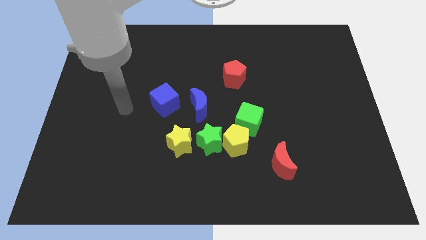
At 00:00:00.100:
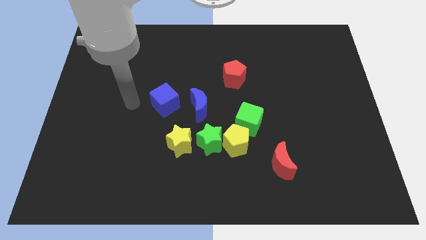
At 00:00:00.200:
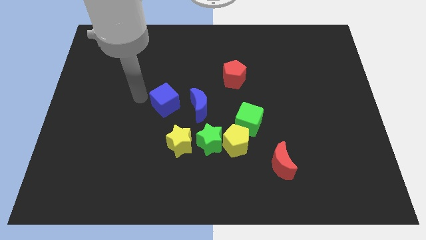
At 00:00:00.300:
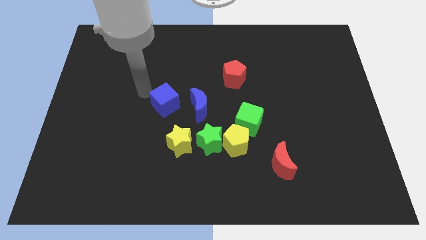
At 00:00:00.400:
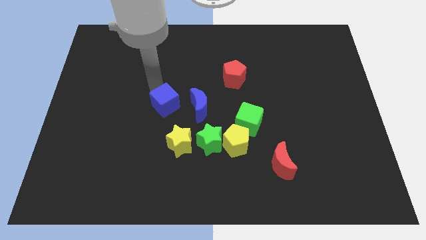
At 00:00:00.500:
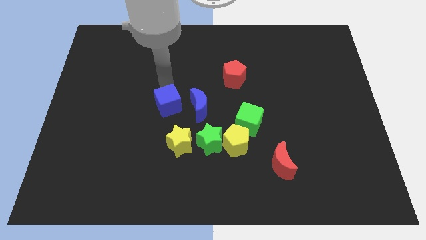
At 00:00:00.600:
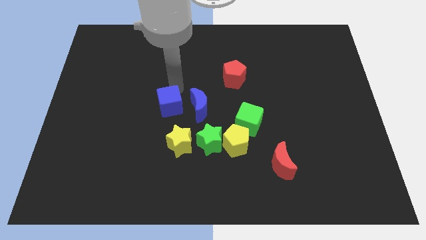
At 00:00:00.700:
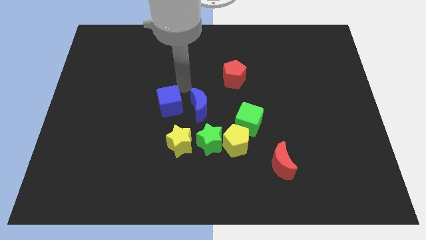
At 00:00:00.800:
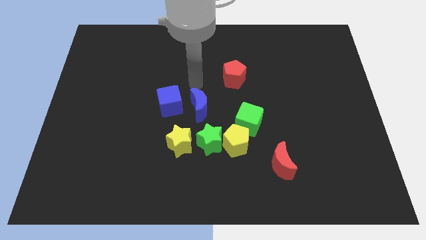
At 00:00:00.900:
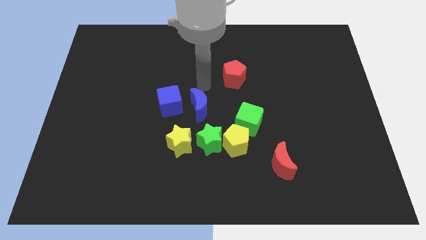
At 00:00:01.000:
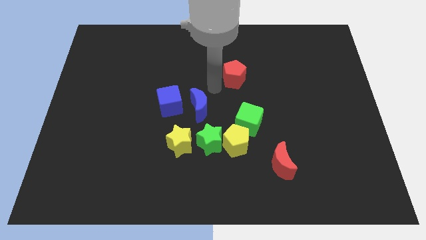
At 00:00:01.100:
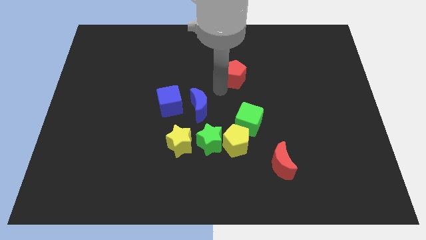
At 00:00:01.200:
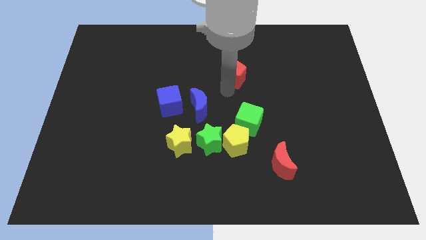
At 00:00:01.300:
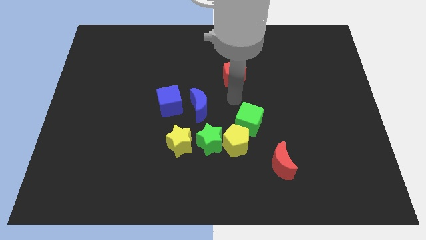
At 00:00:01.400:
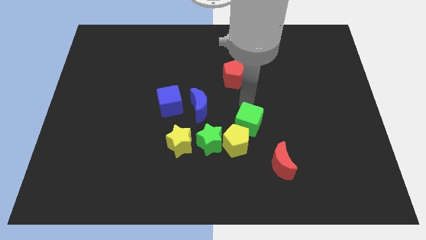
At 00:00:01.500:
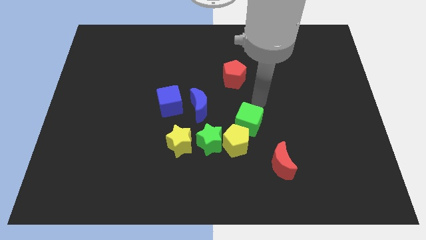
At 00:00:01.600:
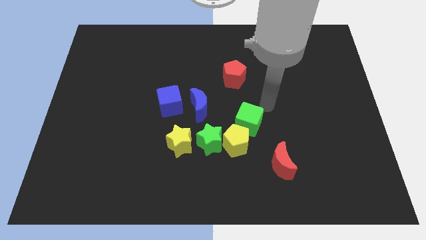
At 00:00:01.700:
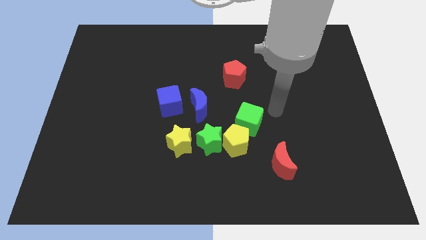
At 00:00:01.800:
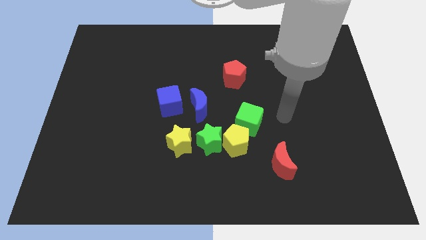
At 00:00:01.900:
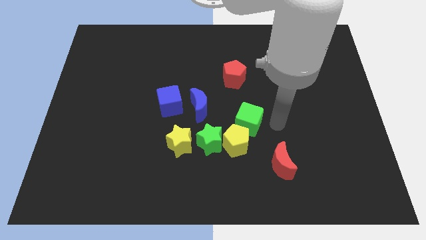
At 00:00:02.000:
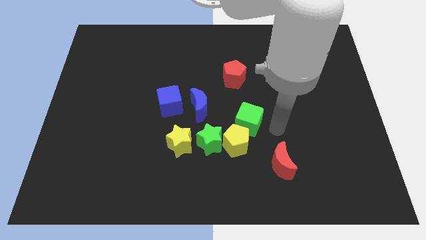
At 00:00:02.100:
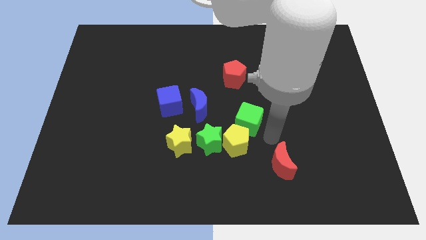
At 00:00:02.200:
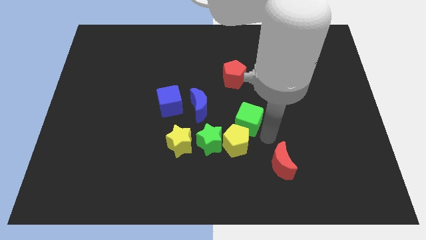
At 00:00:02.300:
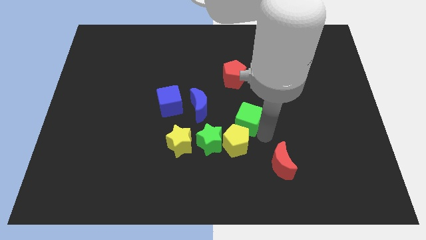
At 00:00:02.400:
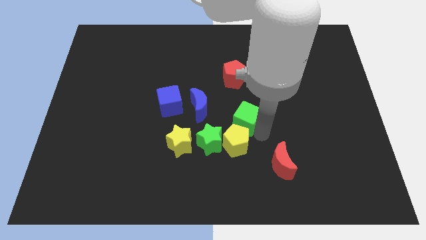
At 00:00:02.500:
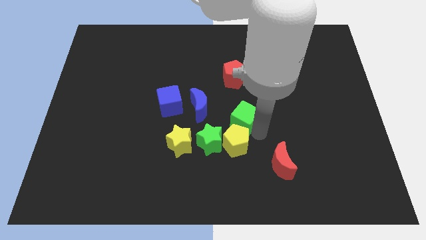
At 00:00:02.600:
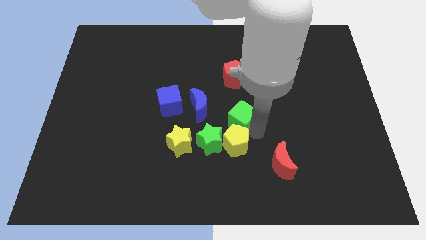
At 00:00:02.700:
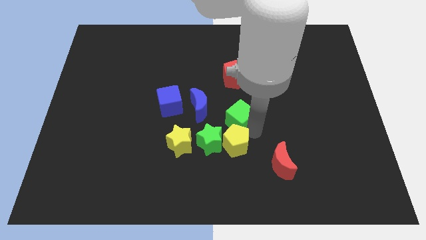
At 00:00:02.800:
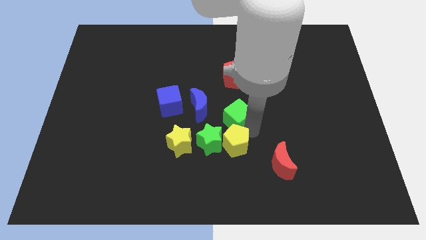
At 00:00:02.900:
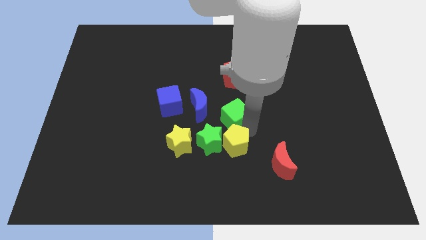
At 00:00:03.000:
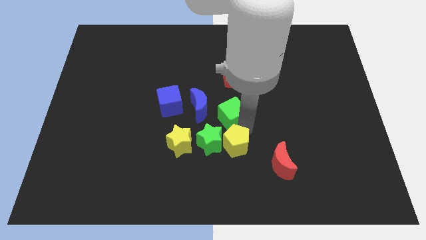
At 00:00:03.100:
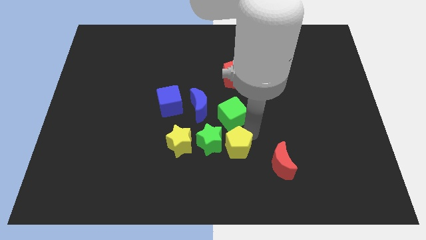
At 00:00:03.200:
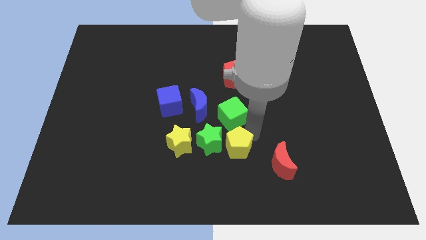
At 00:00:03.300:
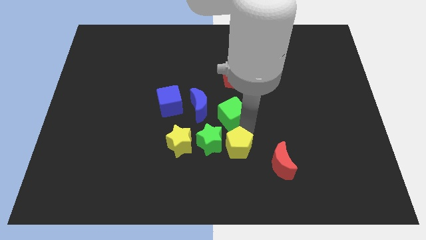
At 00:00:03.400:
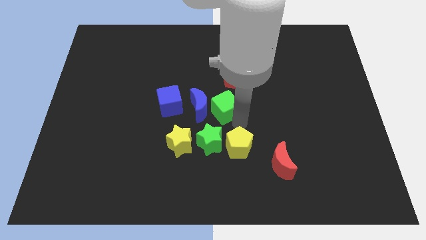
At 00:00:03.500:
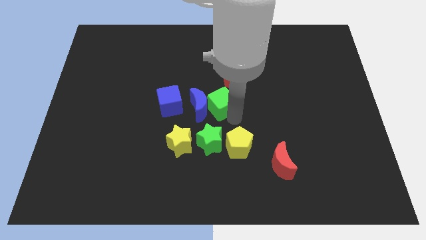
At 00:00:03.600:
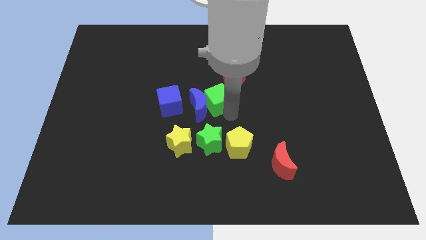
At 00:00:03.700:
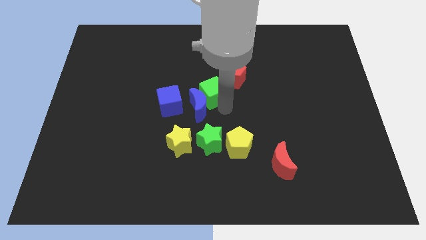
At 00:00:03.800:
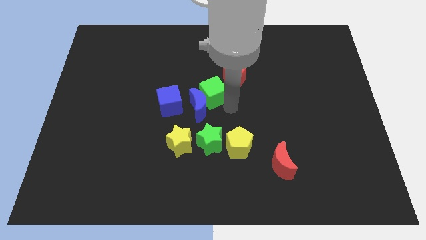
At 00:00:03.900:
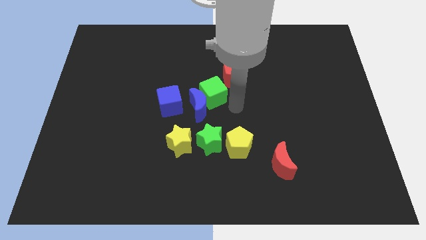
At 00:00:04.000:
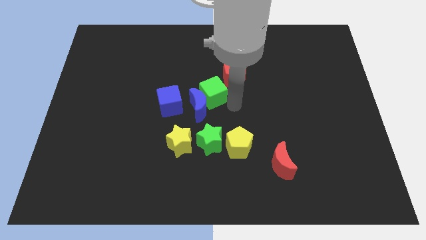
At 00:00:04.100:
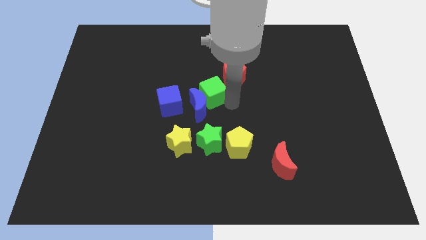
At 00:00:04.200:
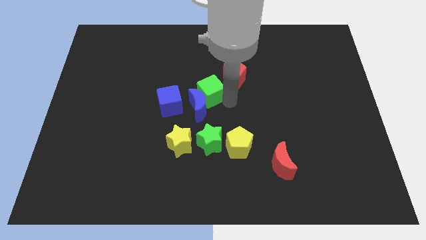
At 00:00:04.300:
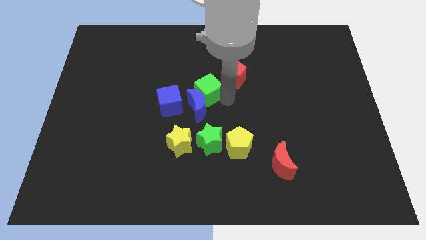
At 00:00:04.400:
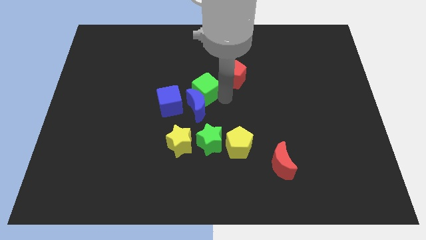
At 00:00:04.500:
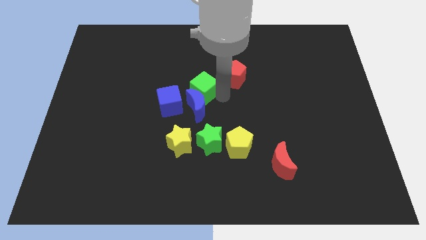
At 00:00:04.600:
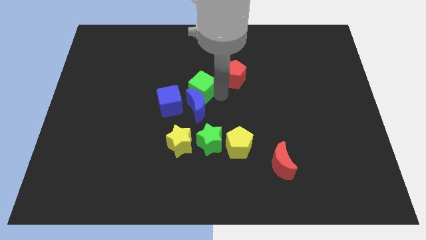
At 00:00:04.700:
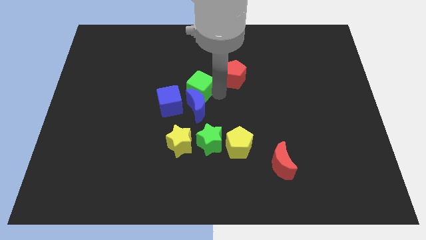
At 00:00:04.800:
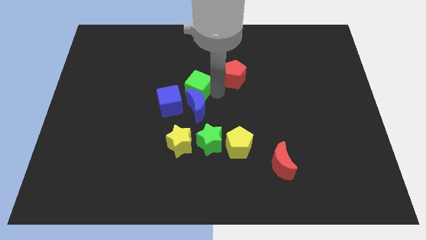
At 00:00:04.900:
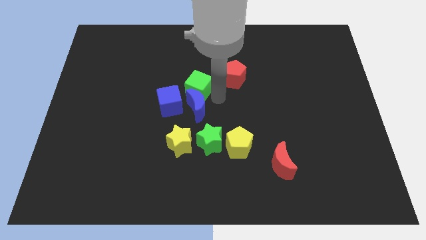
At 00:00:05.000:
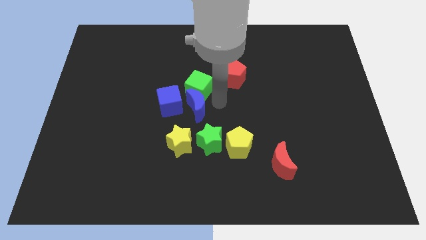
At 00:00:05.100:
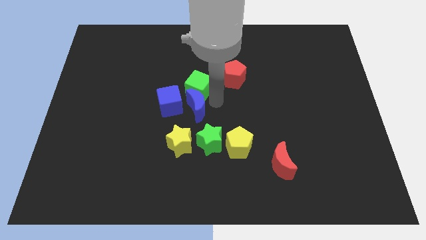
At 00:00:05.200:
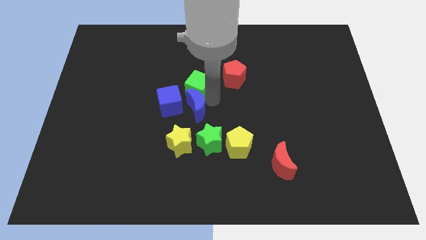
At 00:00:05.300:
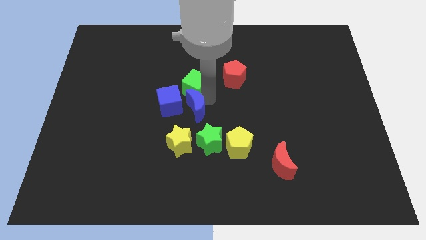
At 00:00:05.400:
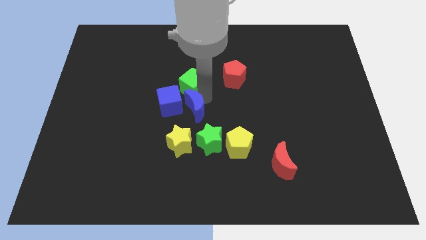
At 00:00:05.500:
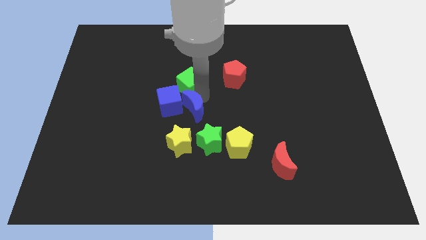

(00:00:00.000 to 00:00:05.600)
put the green cube to the top side of the blue cube

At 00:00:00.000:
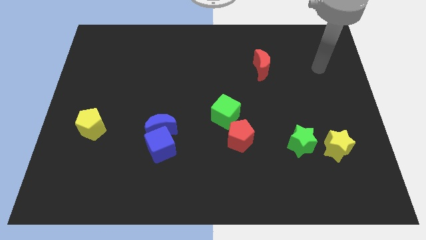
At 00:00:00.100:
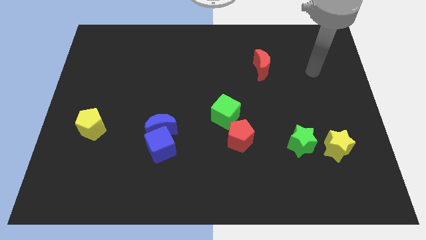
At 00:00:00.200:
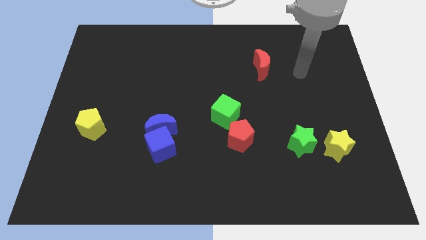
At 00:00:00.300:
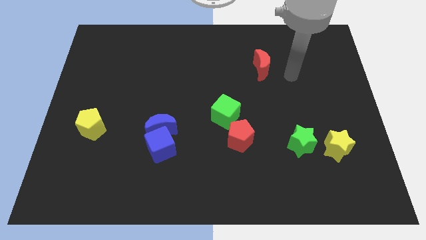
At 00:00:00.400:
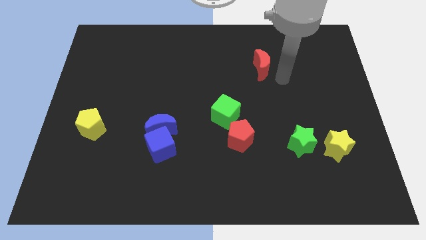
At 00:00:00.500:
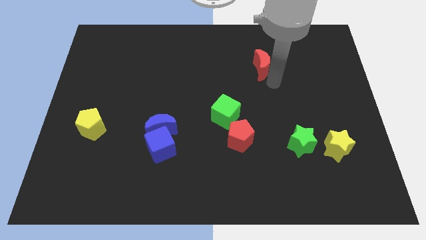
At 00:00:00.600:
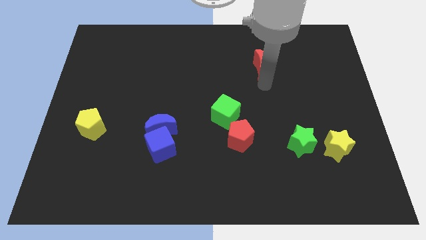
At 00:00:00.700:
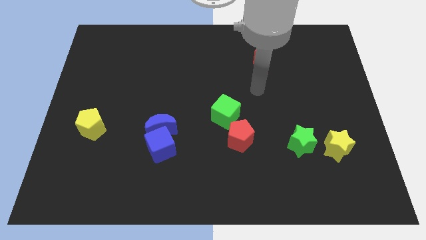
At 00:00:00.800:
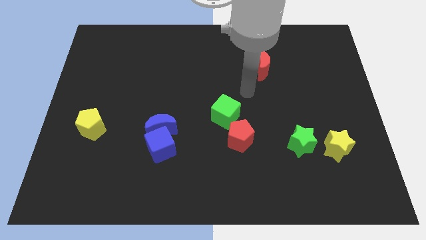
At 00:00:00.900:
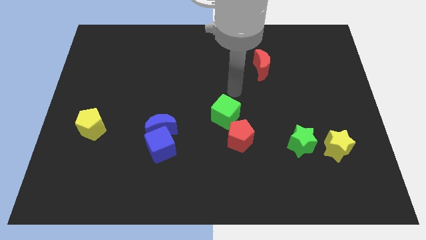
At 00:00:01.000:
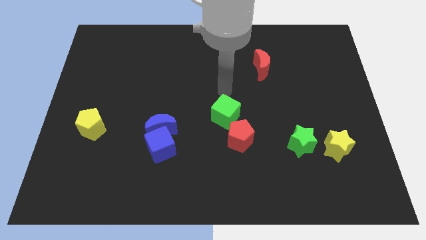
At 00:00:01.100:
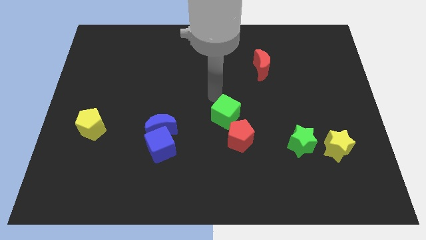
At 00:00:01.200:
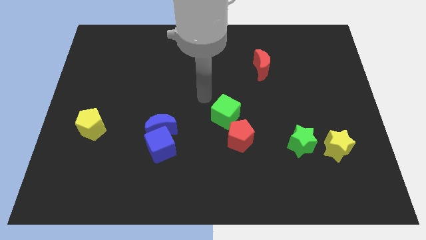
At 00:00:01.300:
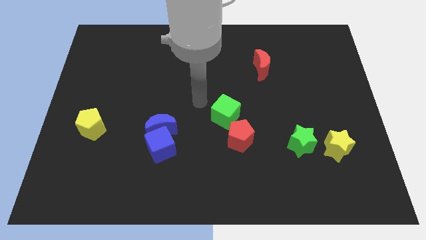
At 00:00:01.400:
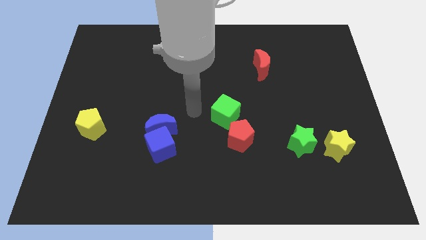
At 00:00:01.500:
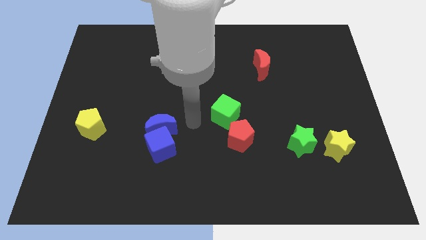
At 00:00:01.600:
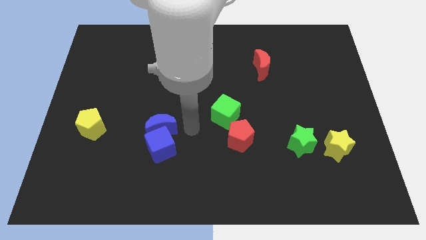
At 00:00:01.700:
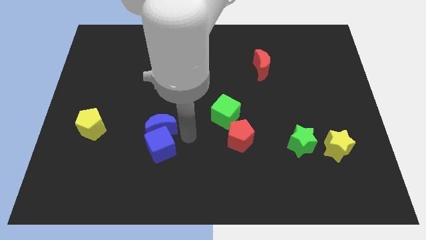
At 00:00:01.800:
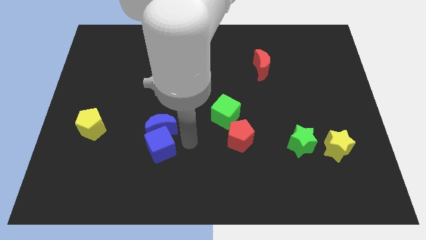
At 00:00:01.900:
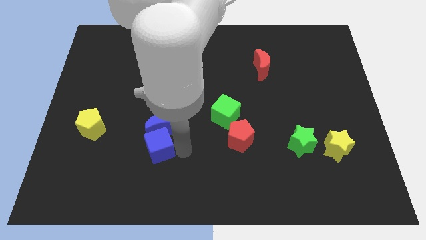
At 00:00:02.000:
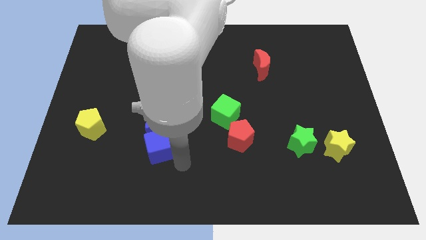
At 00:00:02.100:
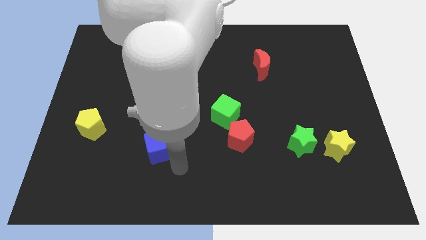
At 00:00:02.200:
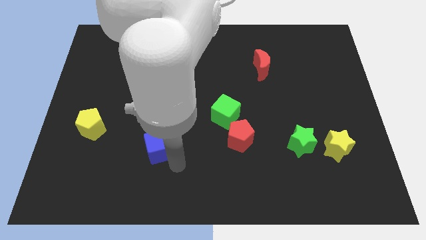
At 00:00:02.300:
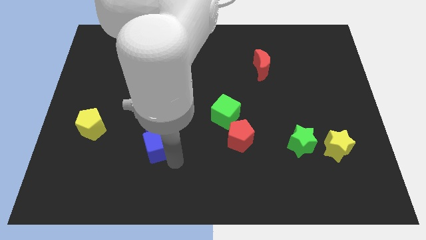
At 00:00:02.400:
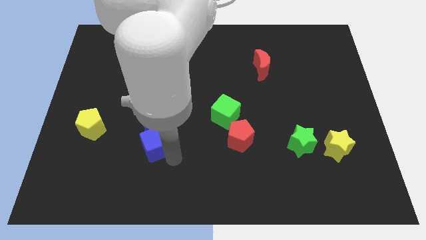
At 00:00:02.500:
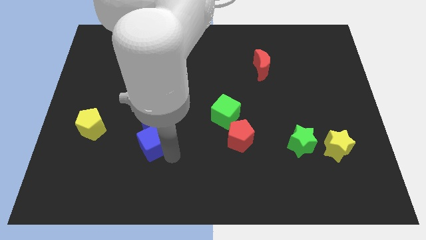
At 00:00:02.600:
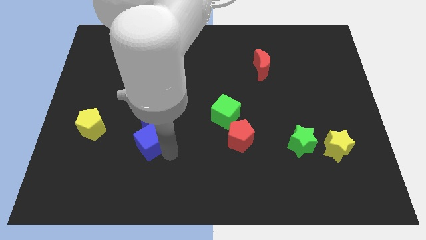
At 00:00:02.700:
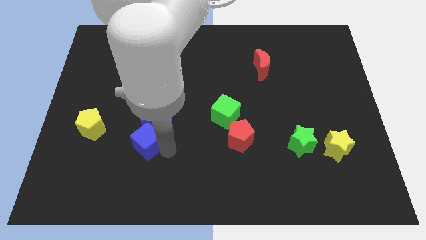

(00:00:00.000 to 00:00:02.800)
put the blue cube to the right side of the yellow pentagon
